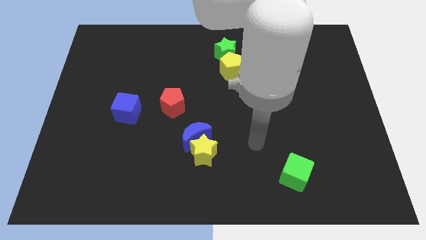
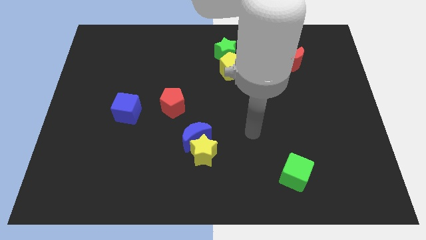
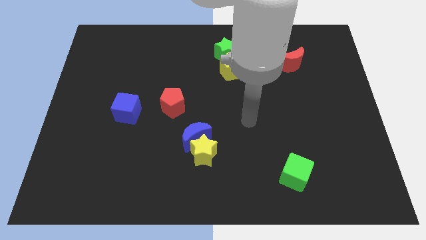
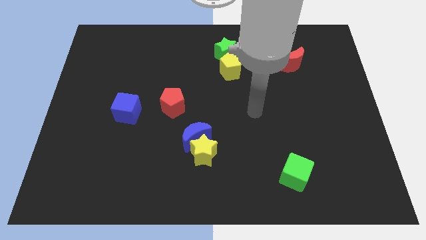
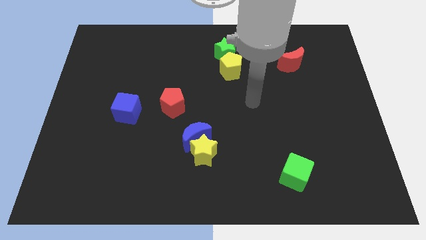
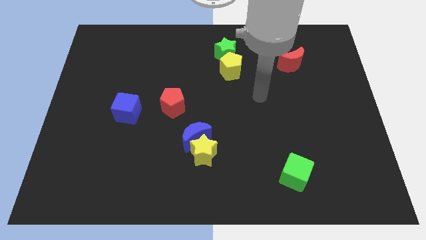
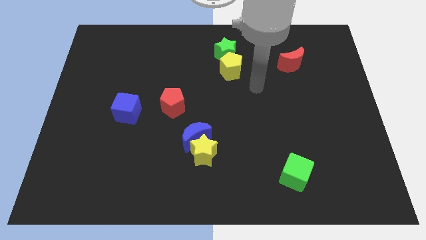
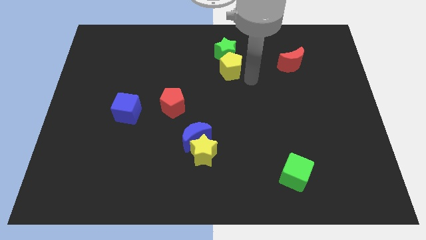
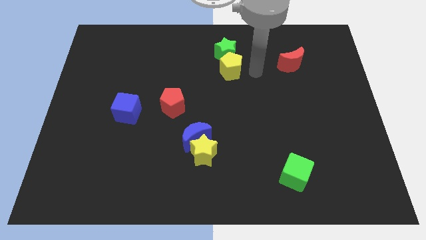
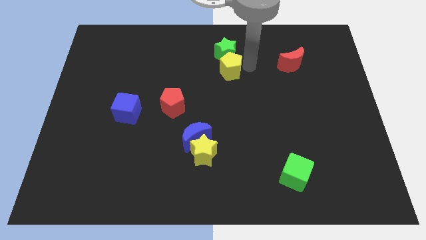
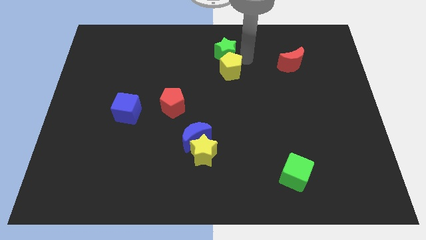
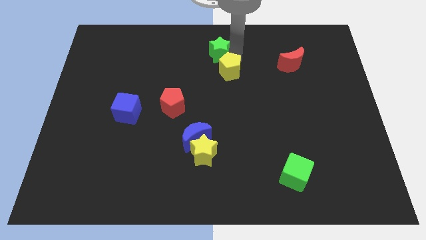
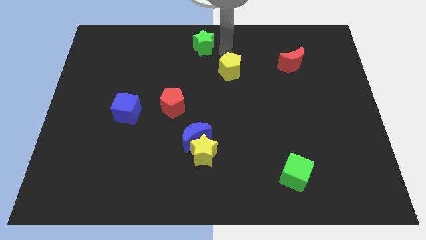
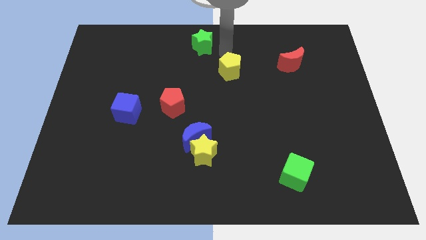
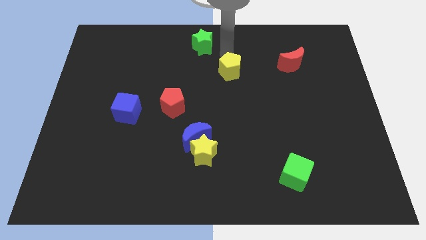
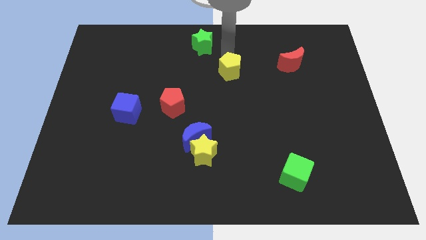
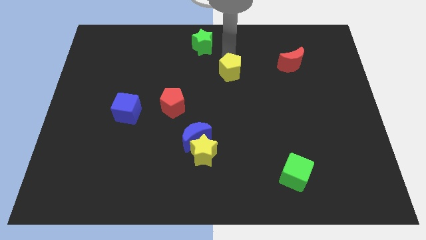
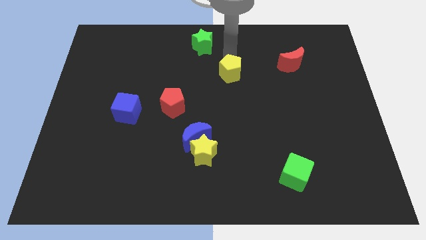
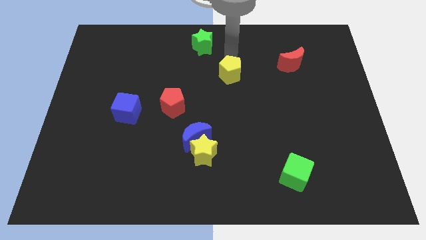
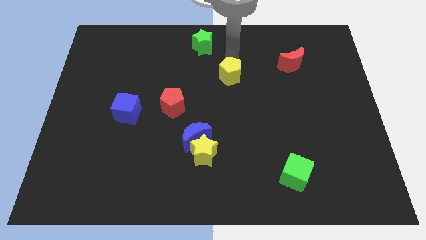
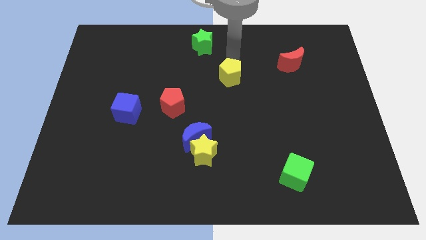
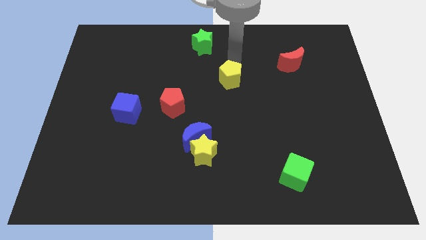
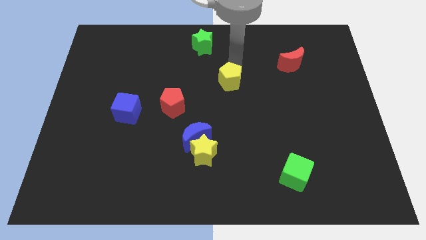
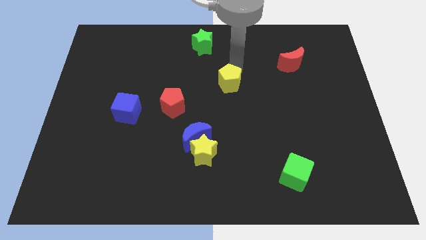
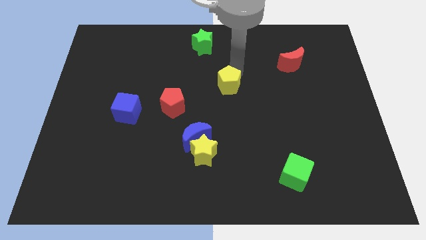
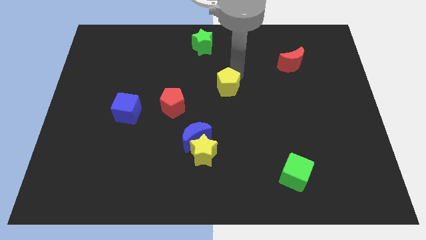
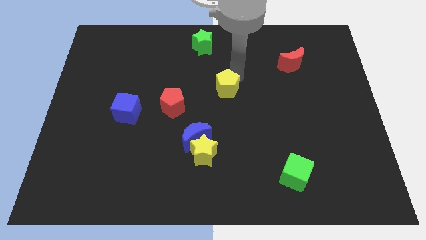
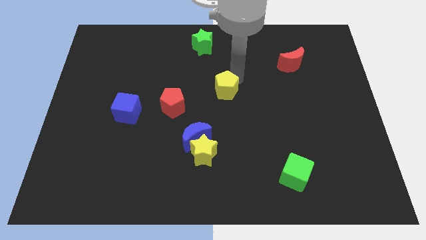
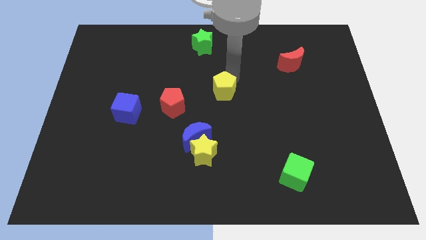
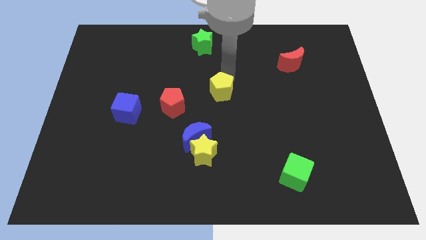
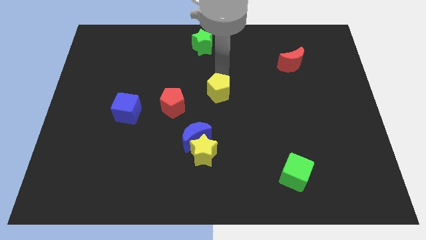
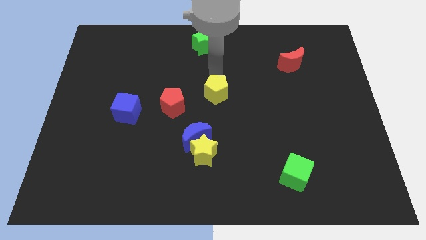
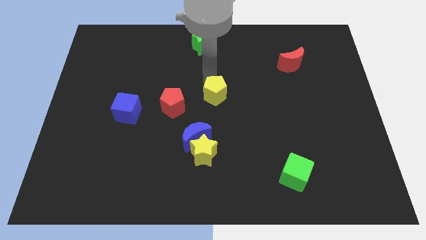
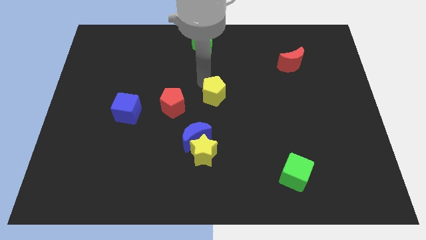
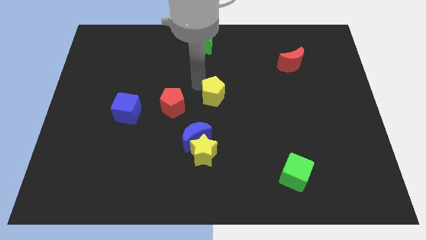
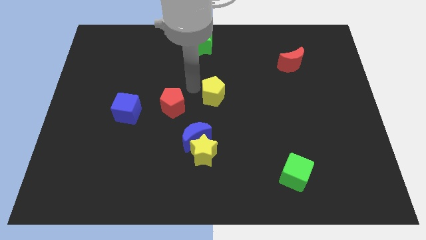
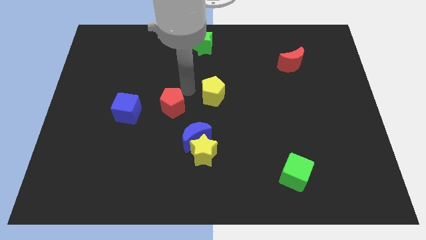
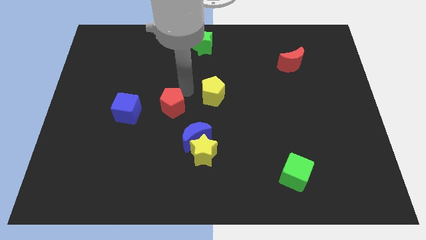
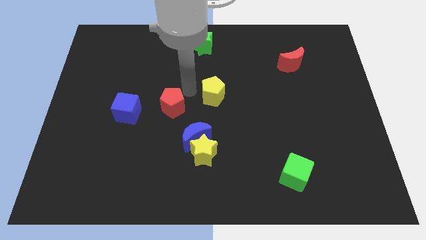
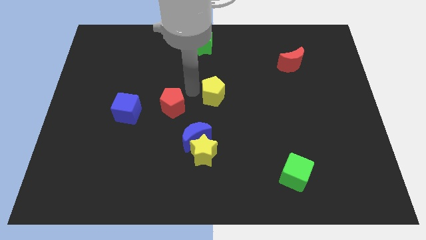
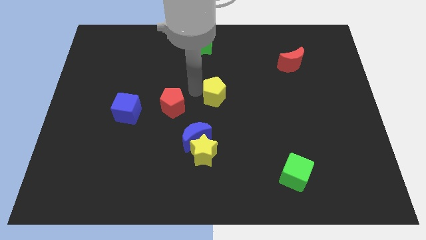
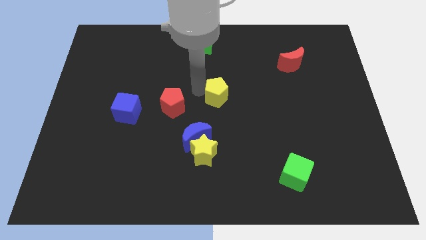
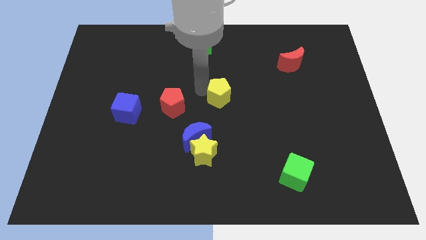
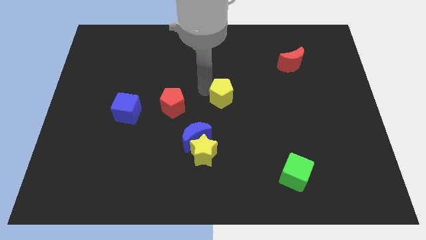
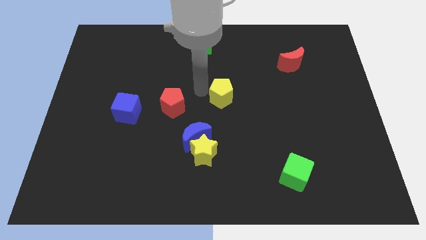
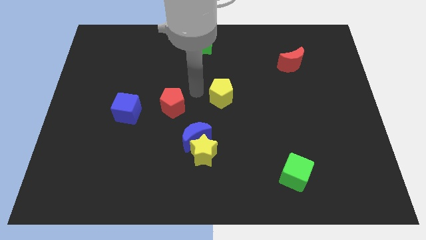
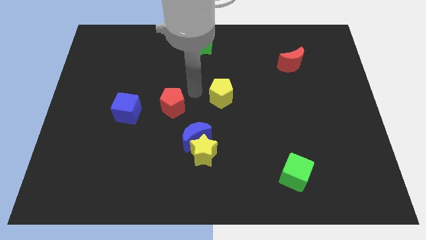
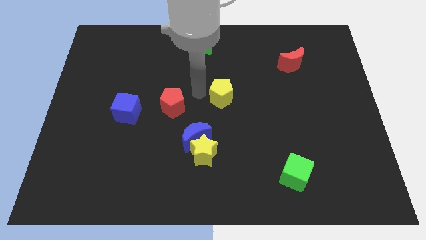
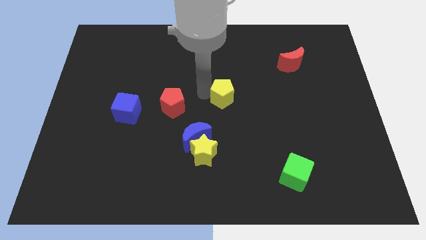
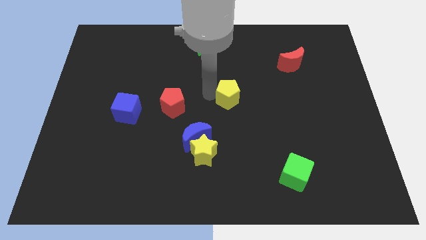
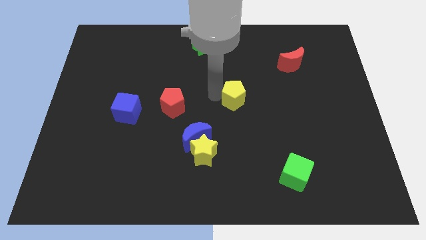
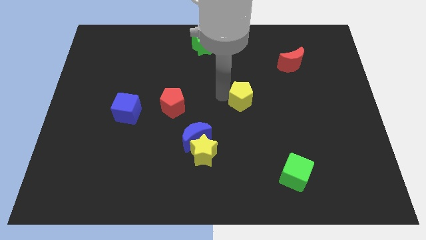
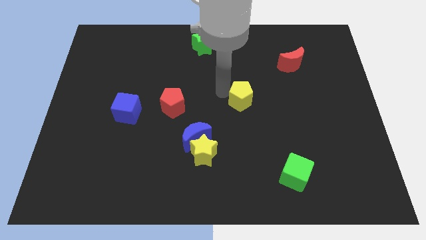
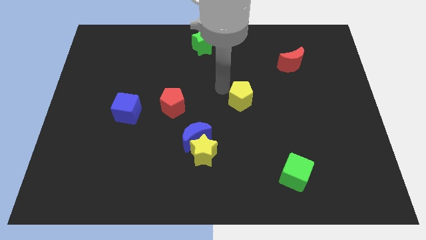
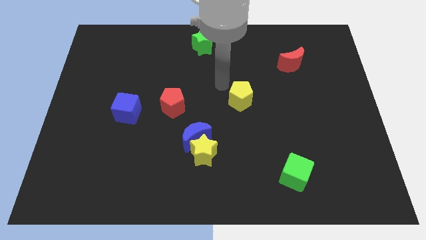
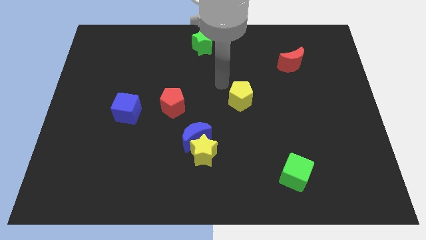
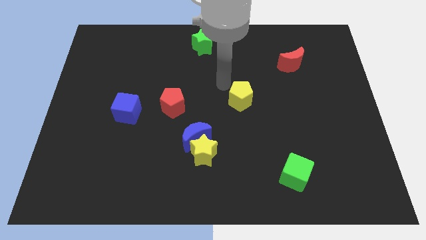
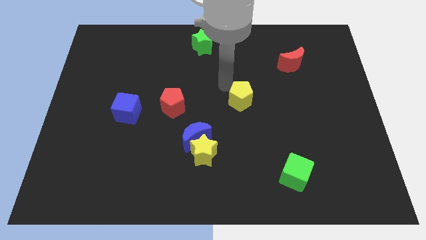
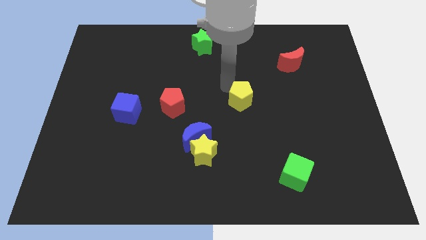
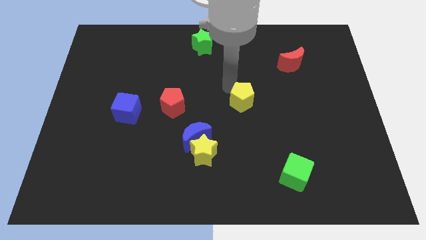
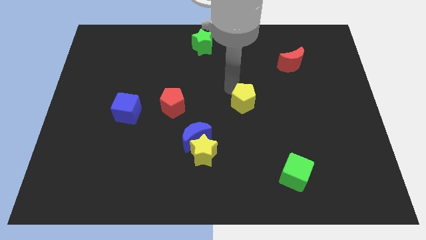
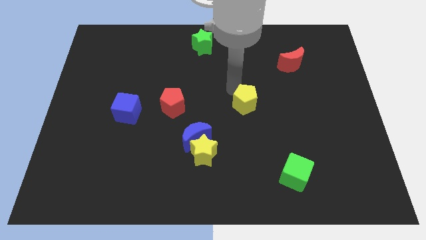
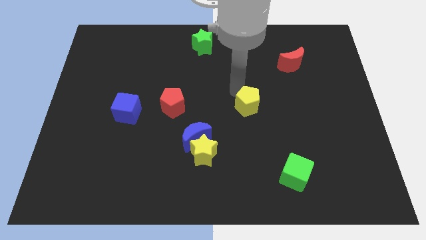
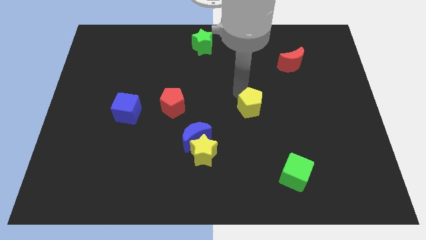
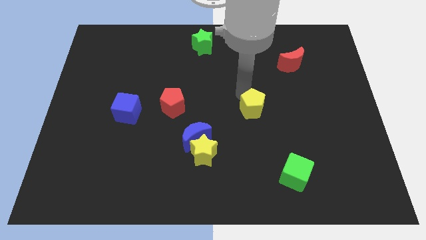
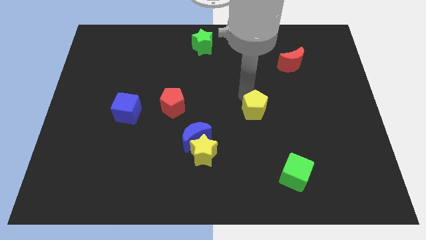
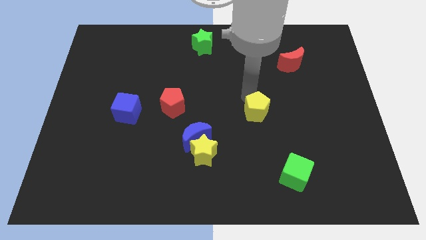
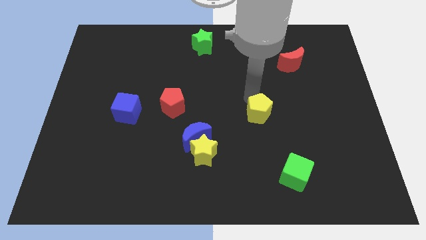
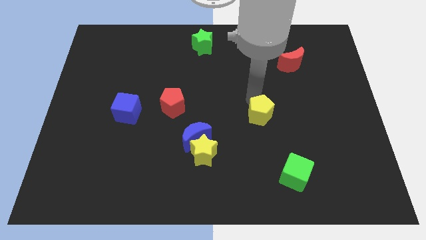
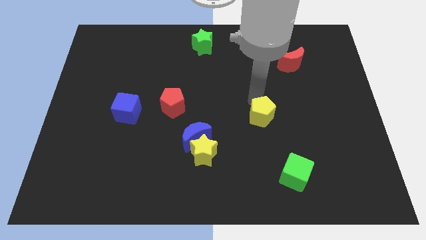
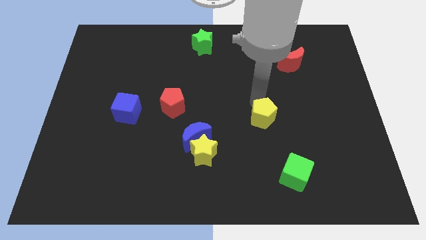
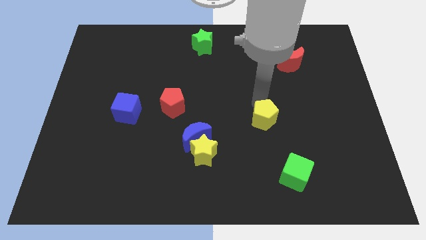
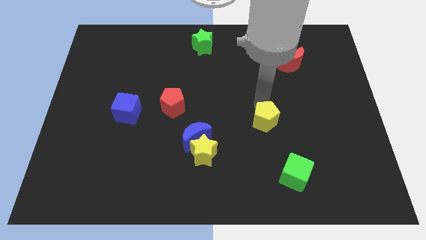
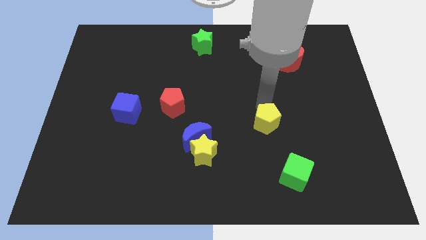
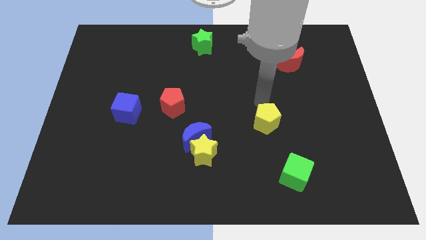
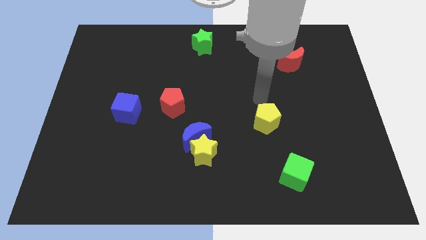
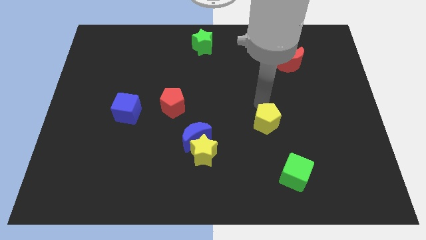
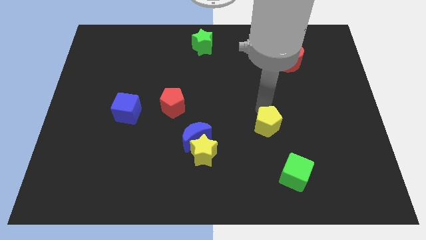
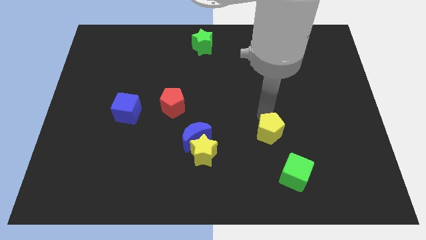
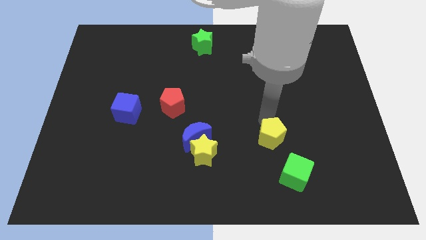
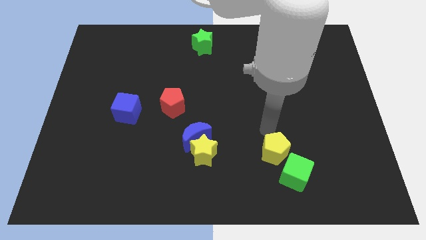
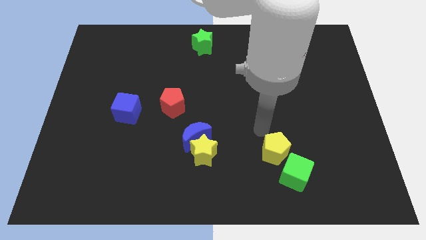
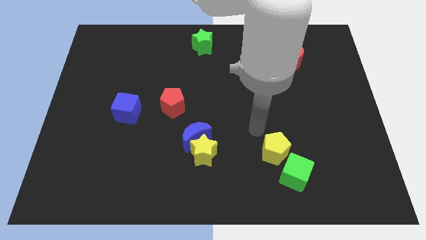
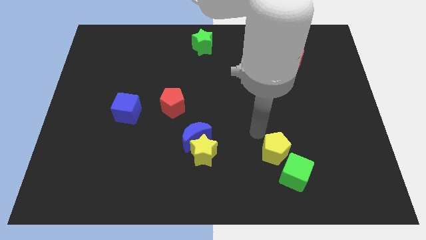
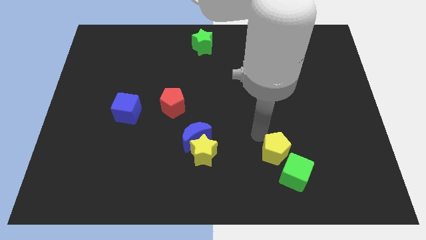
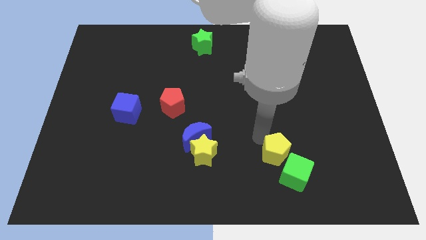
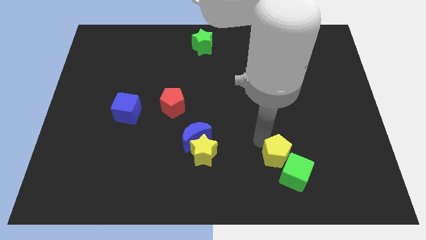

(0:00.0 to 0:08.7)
slide the yellow pentagon next to the green cube
